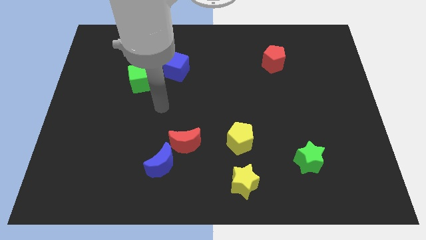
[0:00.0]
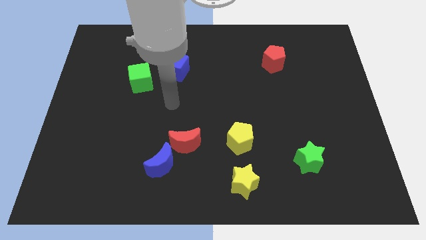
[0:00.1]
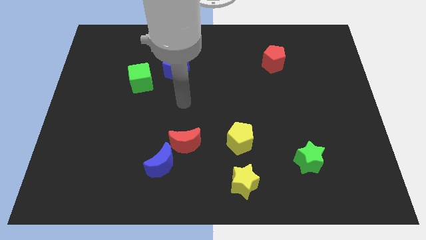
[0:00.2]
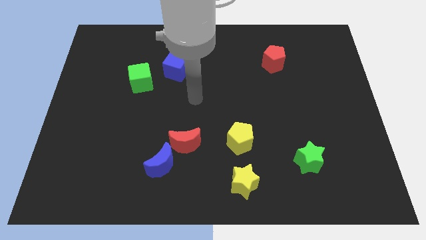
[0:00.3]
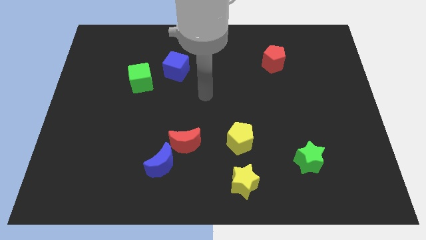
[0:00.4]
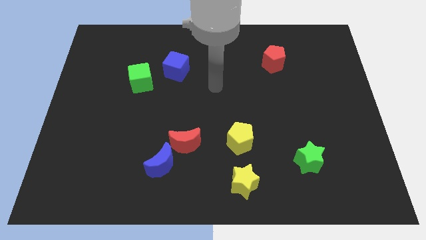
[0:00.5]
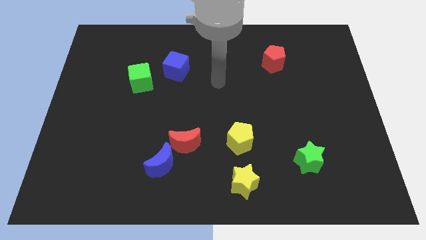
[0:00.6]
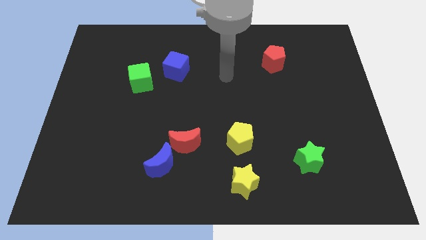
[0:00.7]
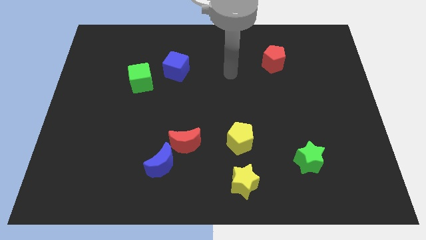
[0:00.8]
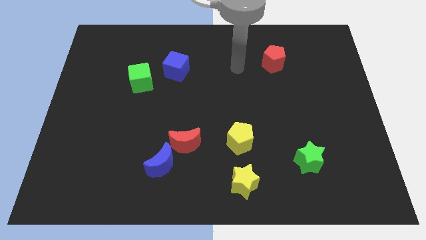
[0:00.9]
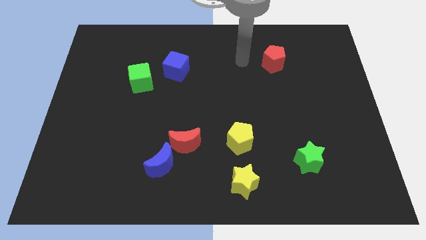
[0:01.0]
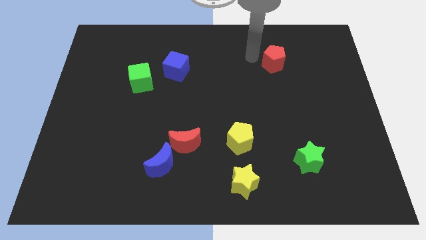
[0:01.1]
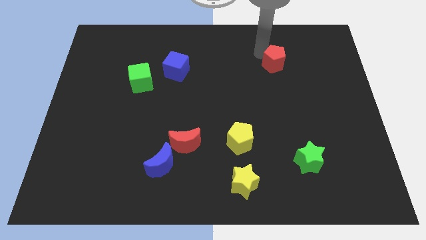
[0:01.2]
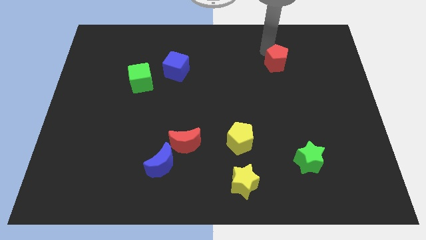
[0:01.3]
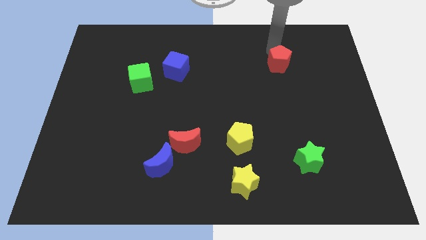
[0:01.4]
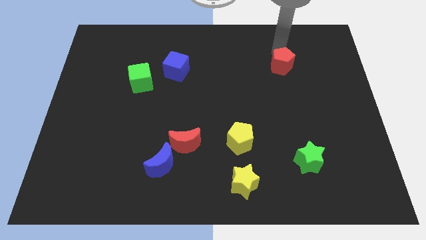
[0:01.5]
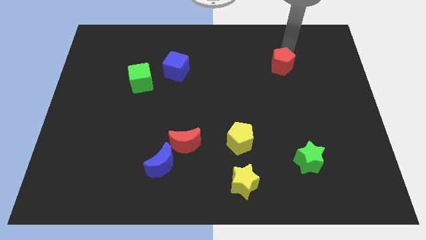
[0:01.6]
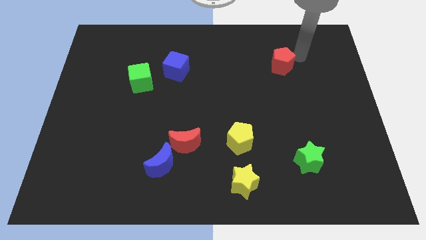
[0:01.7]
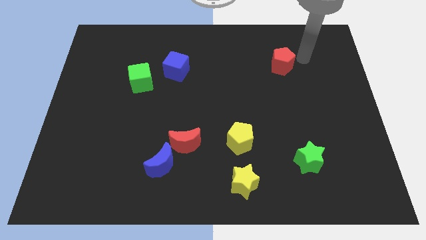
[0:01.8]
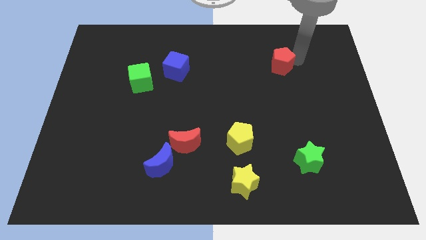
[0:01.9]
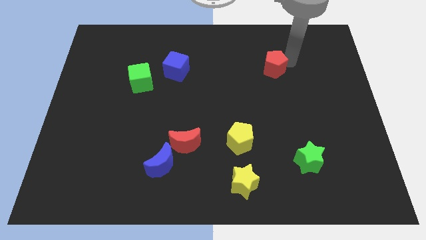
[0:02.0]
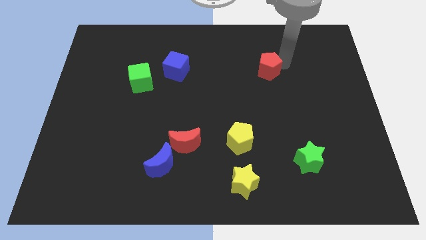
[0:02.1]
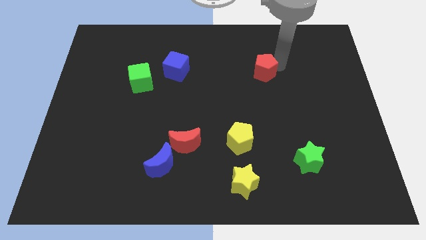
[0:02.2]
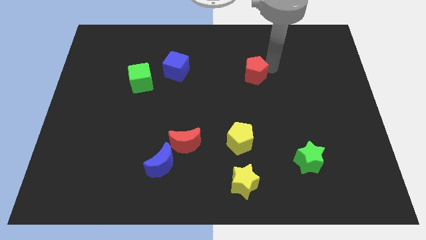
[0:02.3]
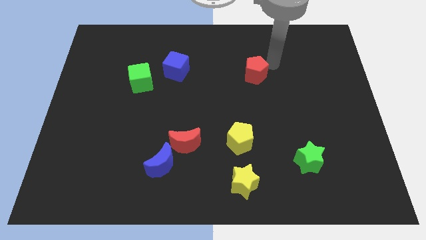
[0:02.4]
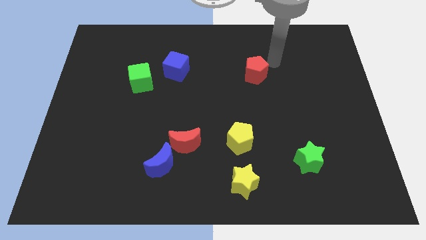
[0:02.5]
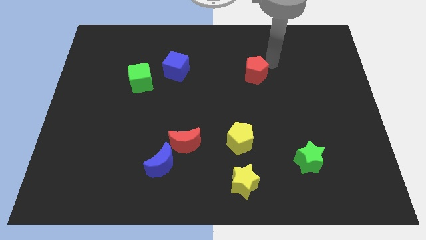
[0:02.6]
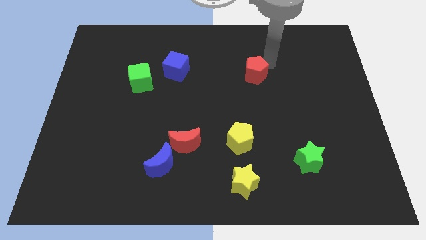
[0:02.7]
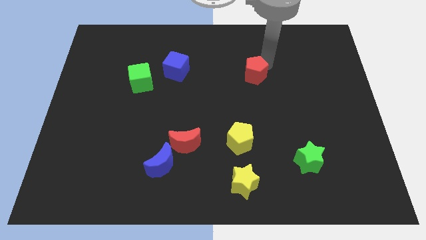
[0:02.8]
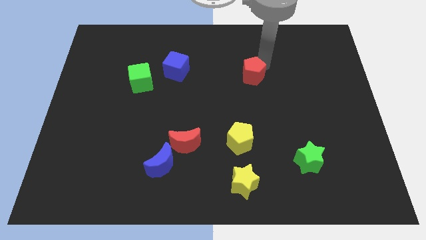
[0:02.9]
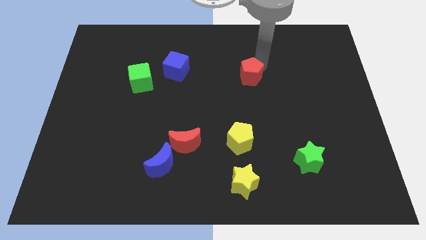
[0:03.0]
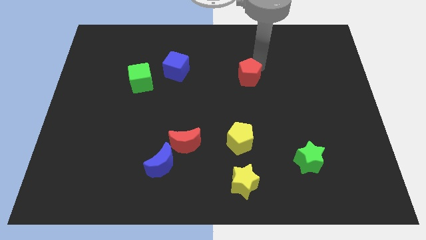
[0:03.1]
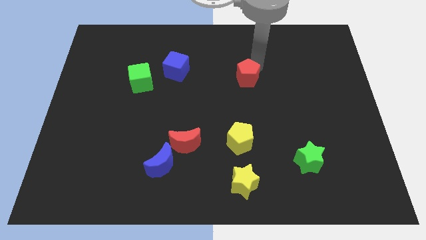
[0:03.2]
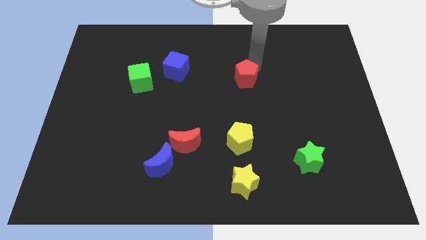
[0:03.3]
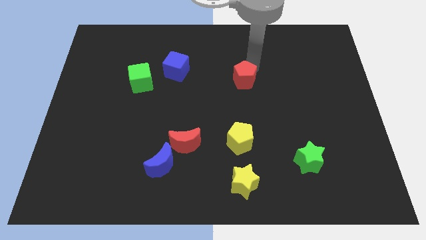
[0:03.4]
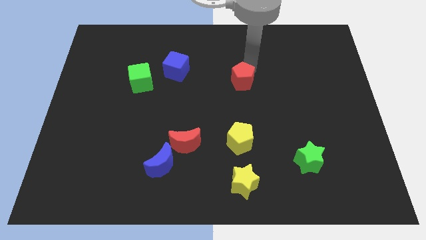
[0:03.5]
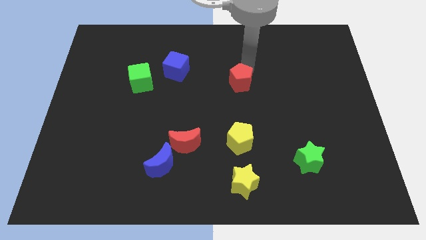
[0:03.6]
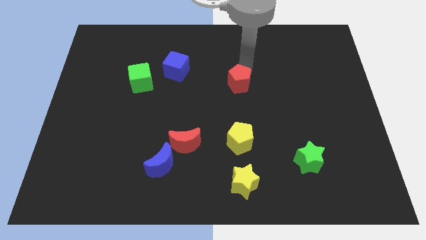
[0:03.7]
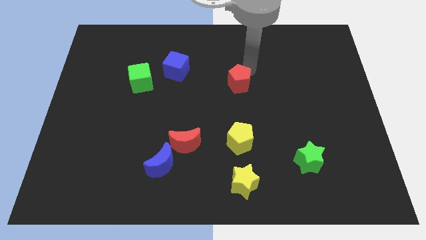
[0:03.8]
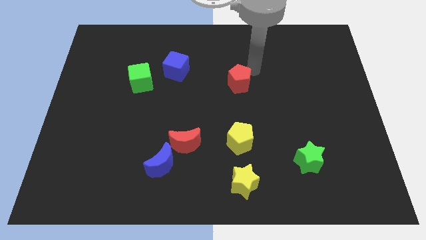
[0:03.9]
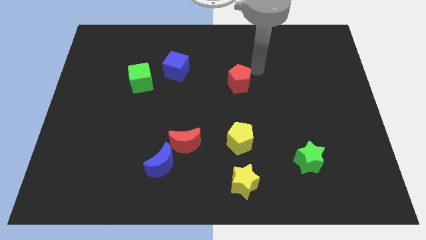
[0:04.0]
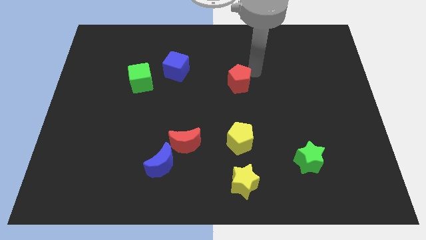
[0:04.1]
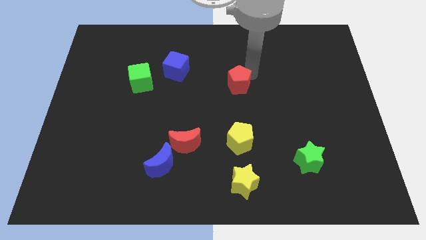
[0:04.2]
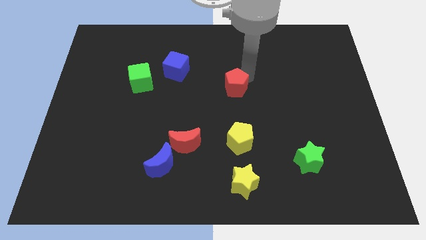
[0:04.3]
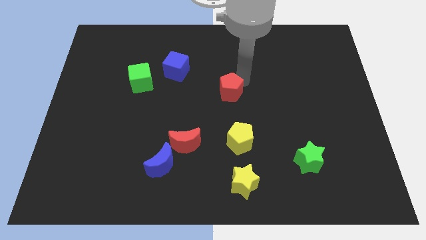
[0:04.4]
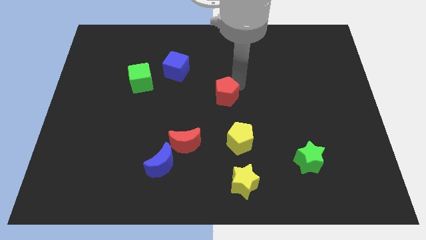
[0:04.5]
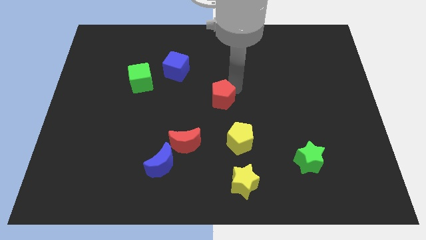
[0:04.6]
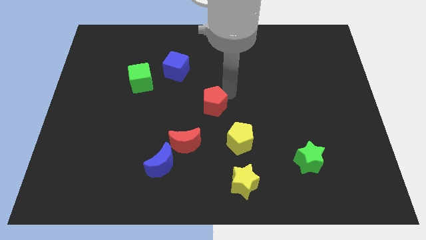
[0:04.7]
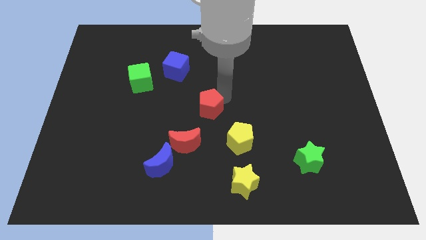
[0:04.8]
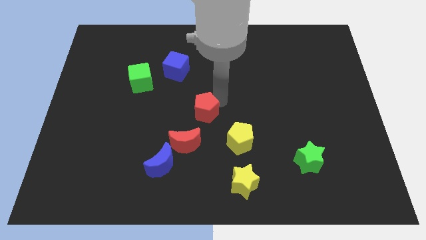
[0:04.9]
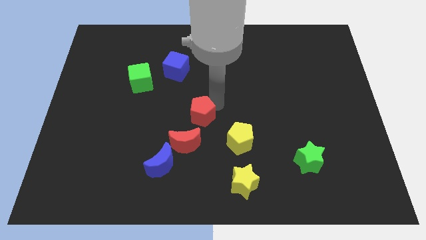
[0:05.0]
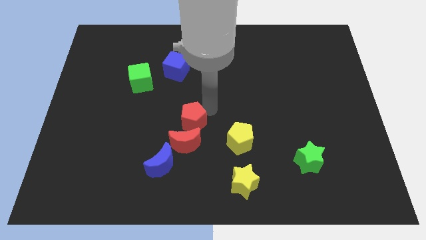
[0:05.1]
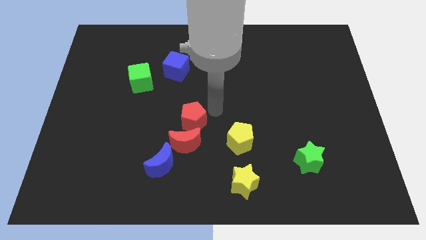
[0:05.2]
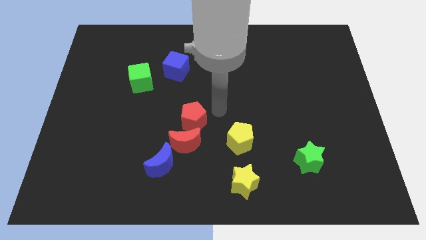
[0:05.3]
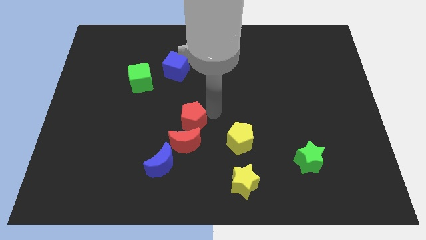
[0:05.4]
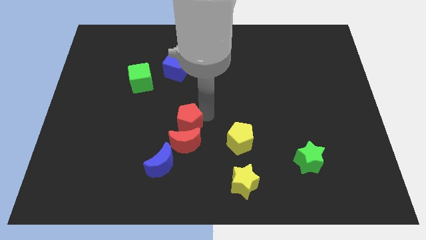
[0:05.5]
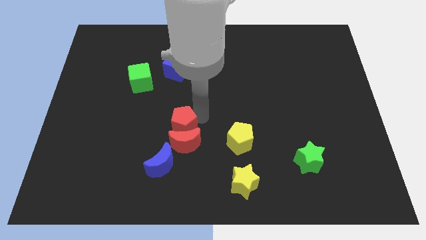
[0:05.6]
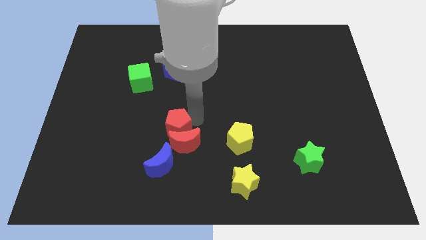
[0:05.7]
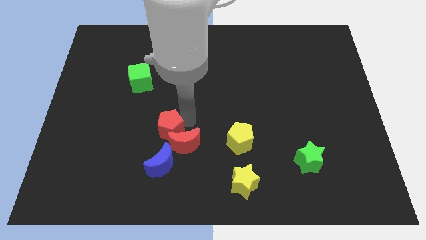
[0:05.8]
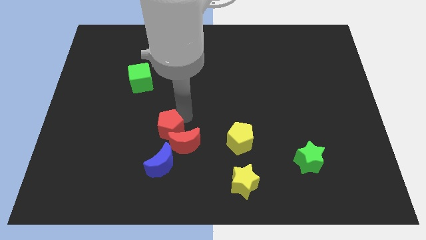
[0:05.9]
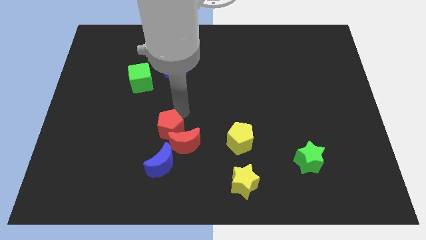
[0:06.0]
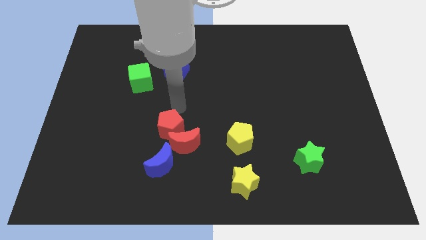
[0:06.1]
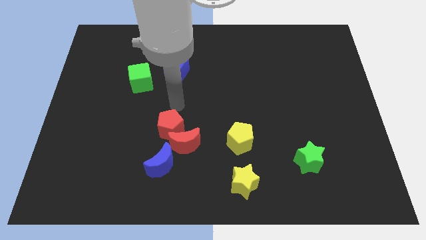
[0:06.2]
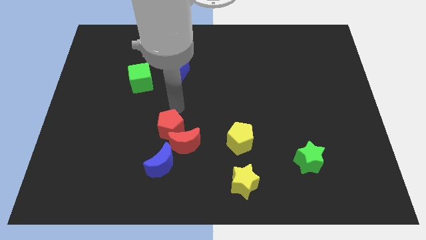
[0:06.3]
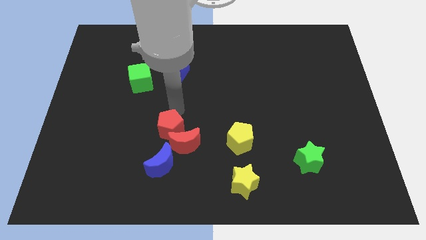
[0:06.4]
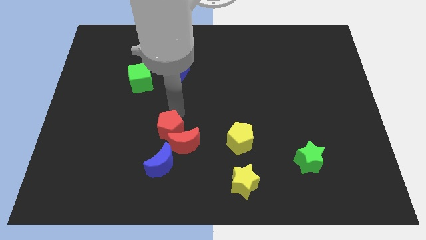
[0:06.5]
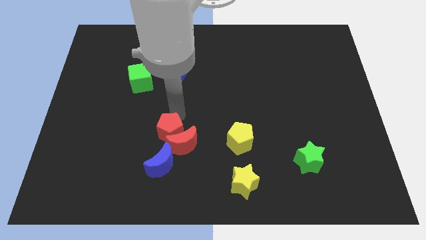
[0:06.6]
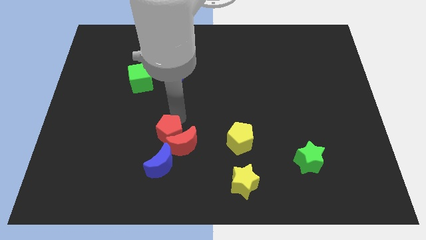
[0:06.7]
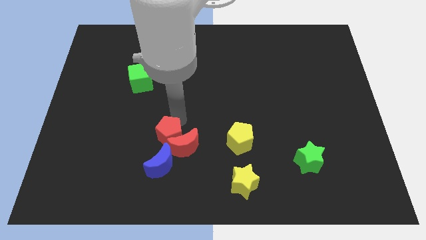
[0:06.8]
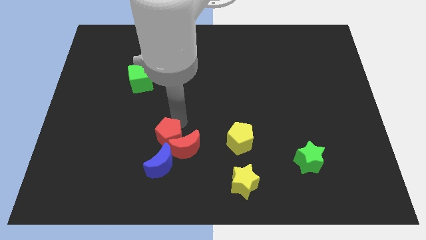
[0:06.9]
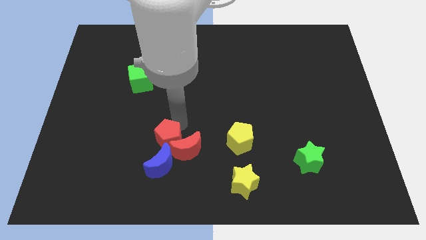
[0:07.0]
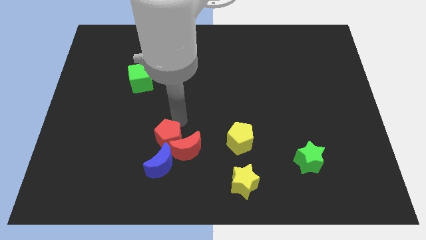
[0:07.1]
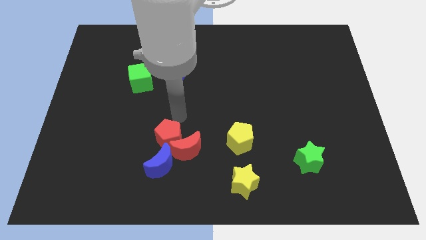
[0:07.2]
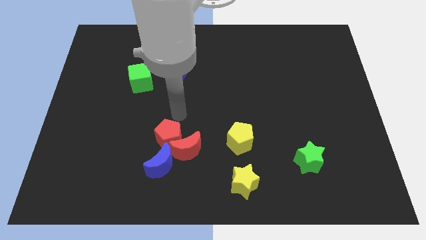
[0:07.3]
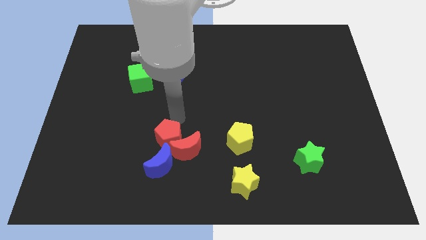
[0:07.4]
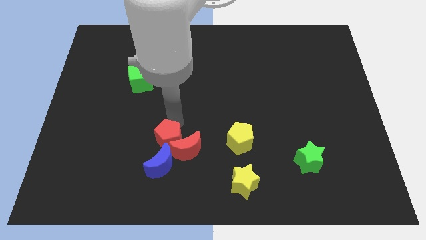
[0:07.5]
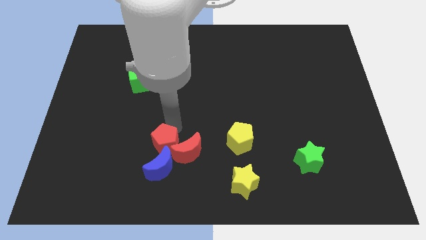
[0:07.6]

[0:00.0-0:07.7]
push the red pentagon next to the blue moon
